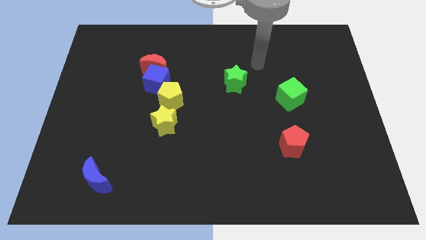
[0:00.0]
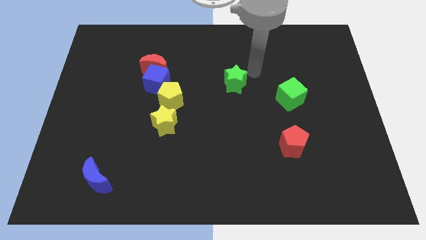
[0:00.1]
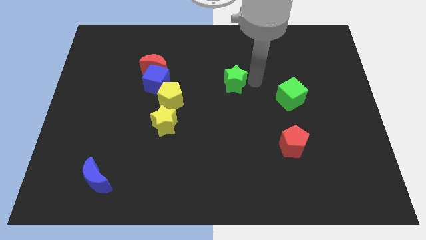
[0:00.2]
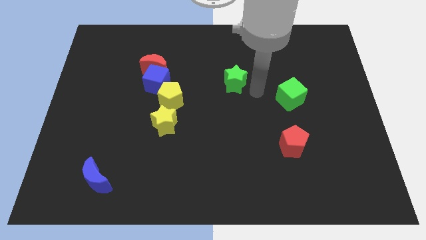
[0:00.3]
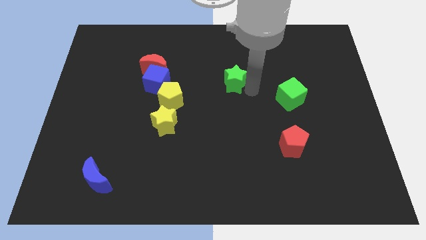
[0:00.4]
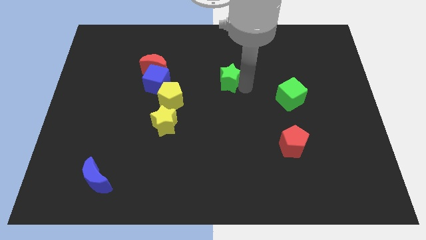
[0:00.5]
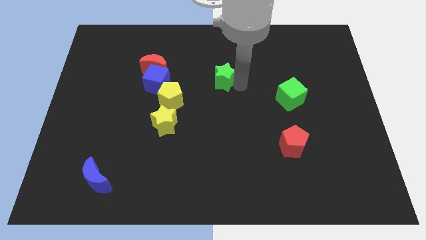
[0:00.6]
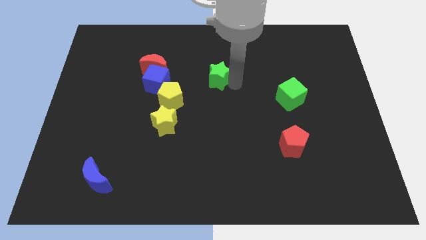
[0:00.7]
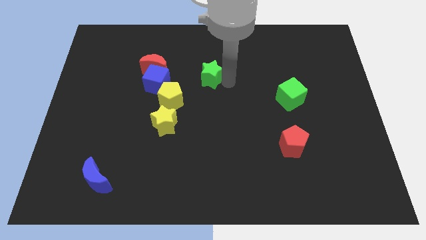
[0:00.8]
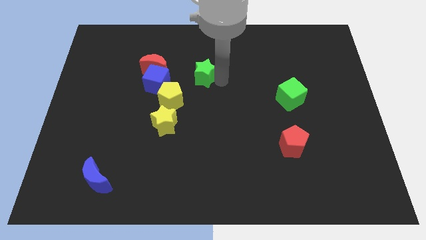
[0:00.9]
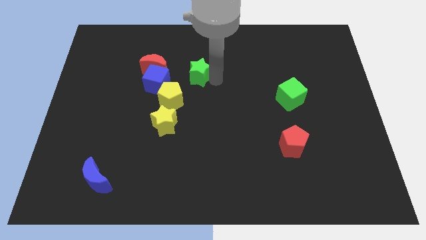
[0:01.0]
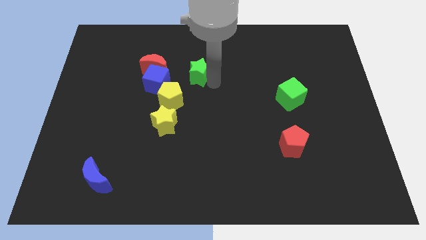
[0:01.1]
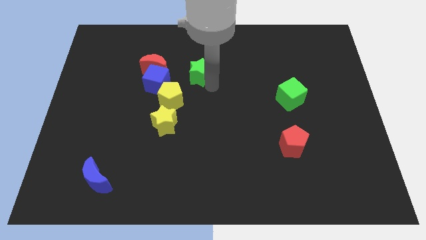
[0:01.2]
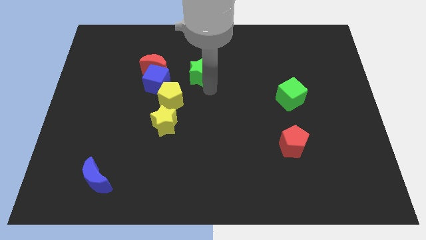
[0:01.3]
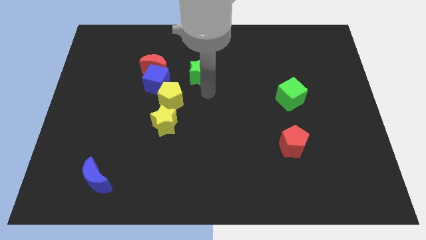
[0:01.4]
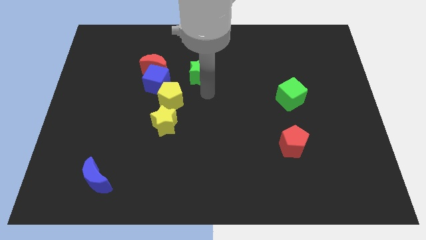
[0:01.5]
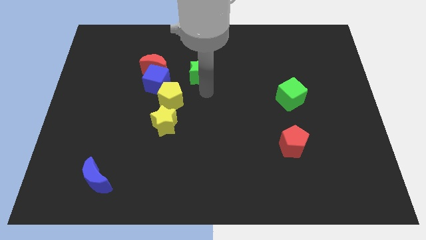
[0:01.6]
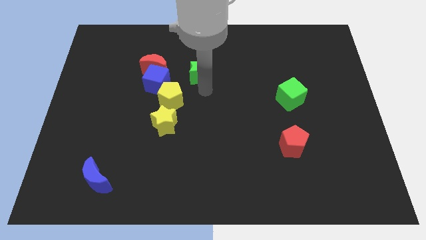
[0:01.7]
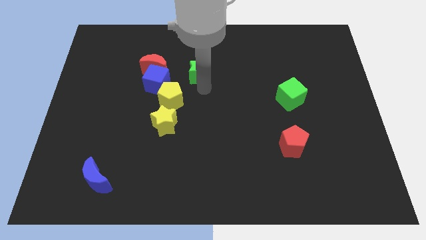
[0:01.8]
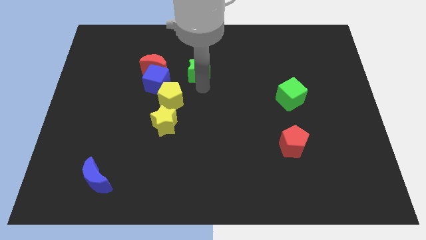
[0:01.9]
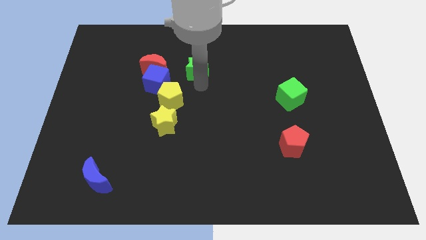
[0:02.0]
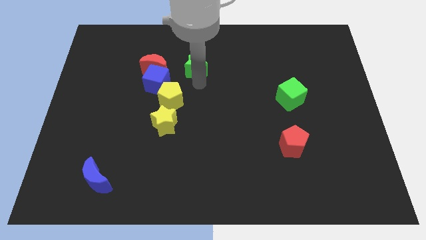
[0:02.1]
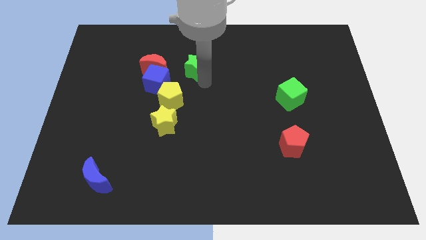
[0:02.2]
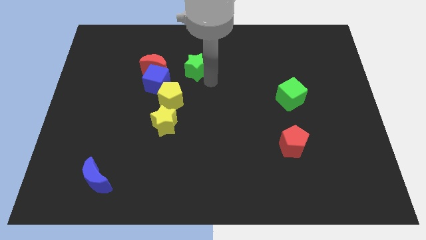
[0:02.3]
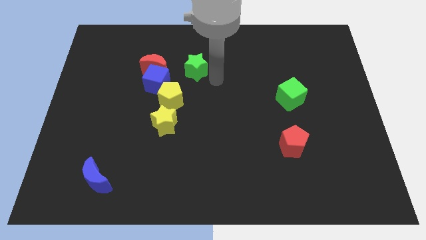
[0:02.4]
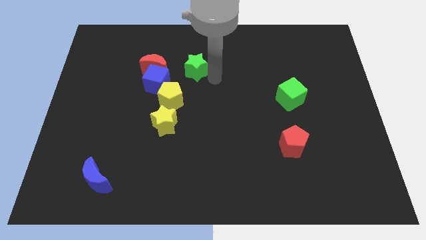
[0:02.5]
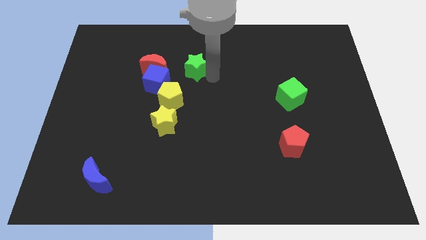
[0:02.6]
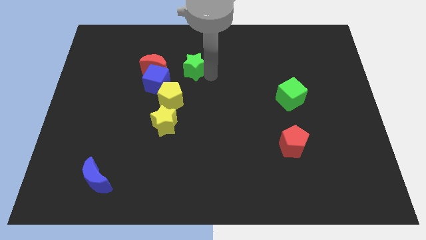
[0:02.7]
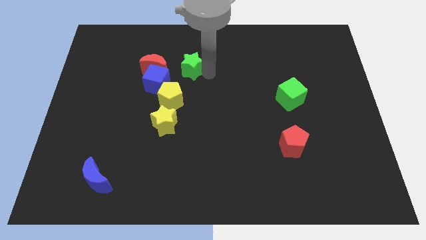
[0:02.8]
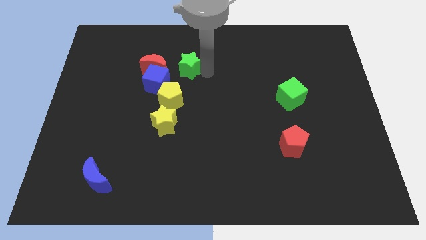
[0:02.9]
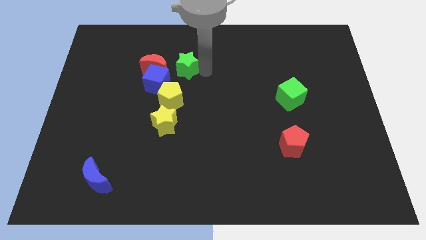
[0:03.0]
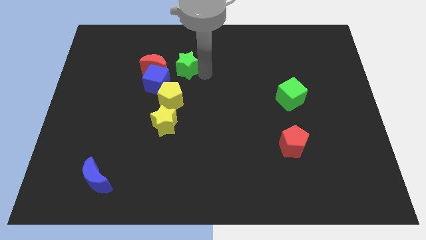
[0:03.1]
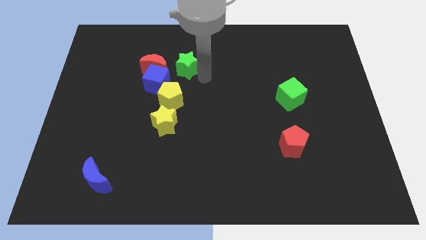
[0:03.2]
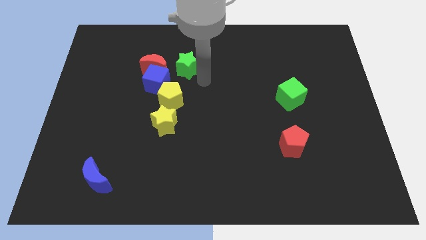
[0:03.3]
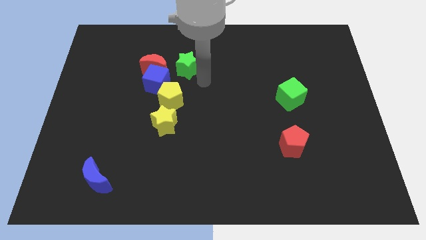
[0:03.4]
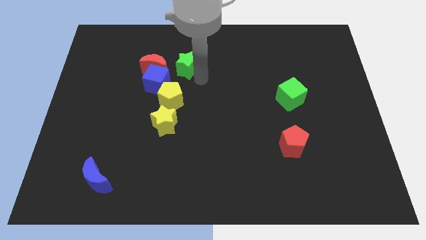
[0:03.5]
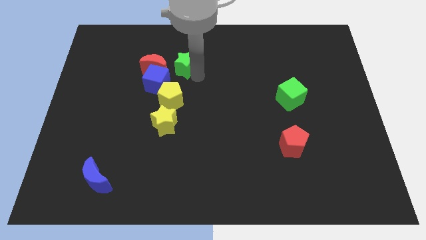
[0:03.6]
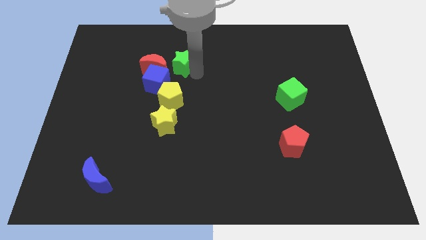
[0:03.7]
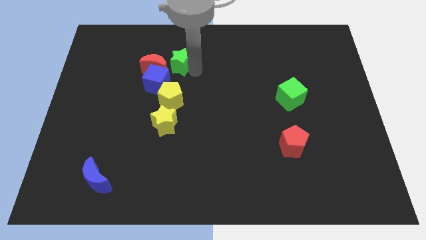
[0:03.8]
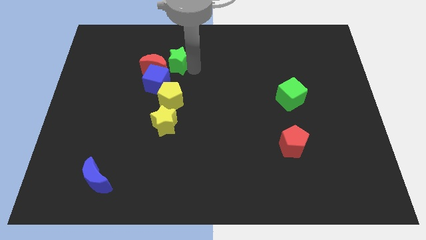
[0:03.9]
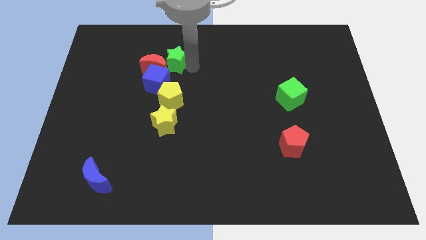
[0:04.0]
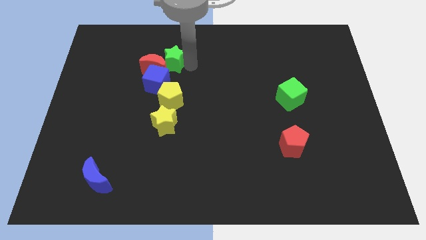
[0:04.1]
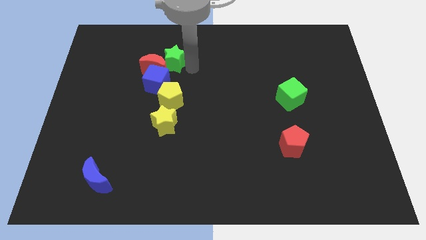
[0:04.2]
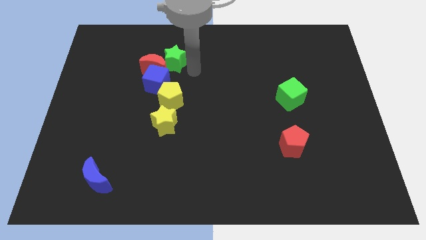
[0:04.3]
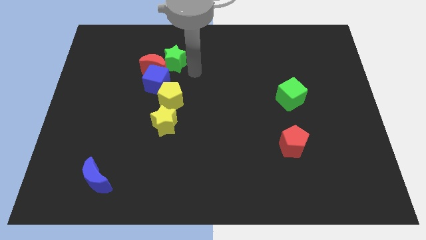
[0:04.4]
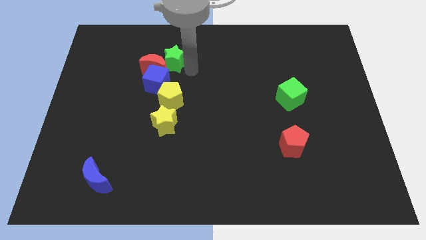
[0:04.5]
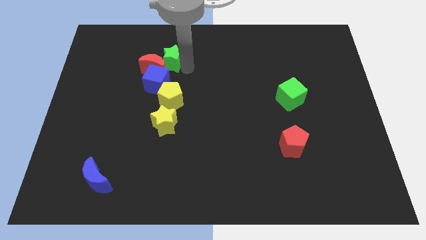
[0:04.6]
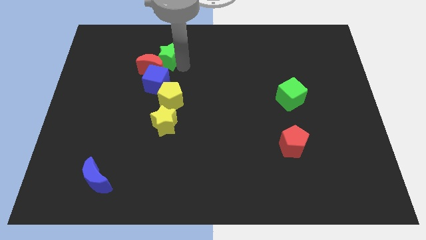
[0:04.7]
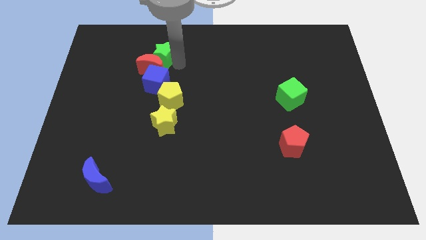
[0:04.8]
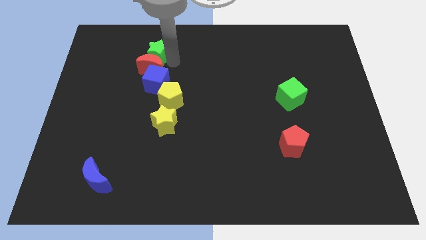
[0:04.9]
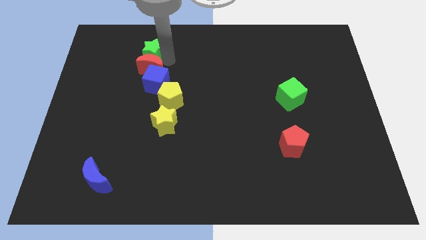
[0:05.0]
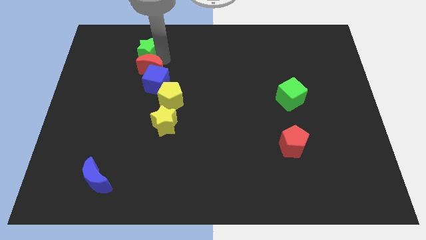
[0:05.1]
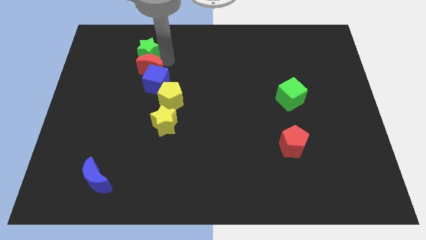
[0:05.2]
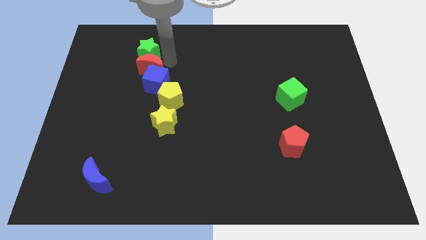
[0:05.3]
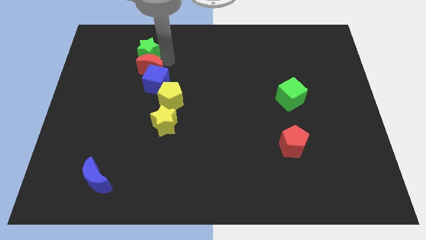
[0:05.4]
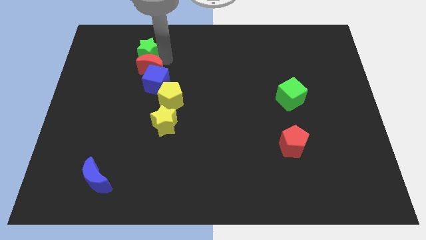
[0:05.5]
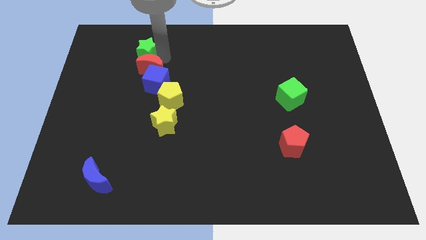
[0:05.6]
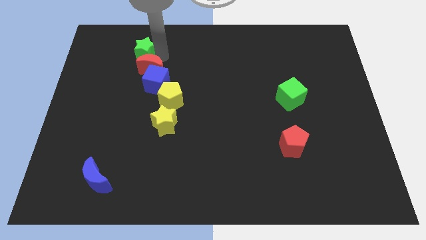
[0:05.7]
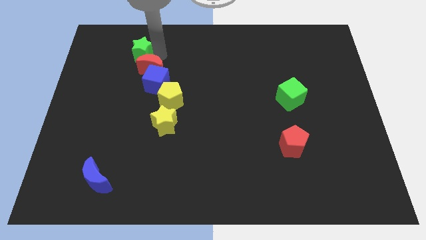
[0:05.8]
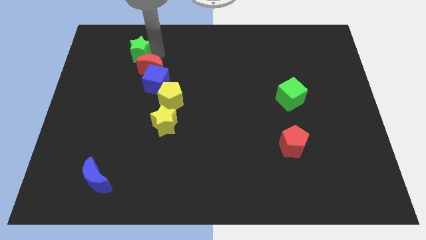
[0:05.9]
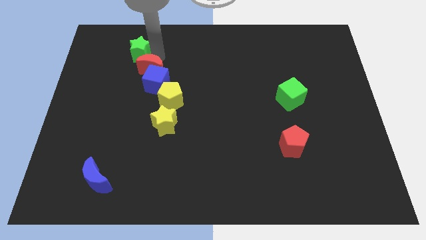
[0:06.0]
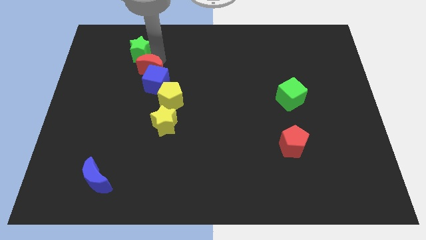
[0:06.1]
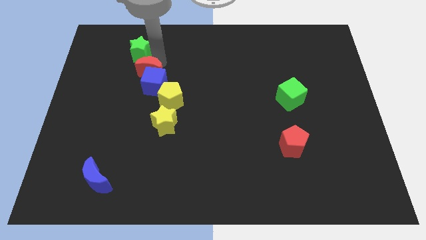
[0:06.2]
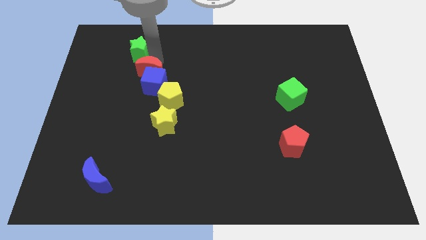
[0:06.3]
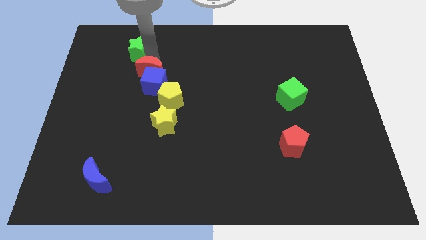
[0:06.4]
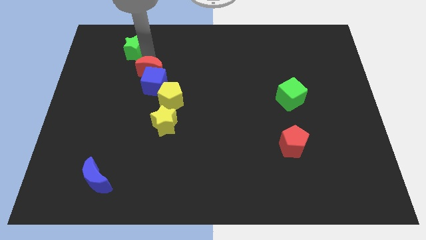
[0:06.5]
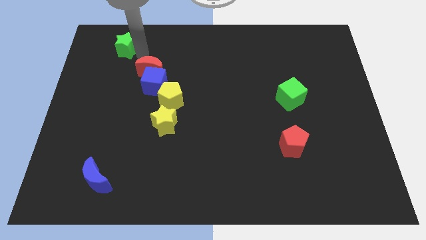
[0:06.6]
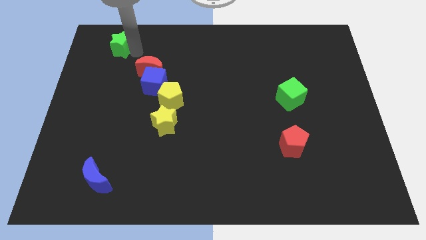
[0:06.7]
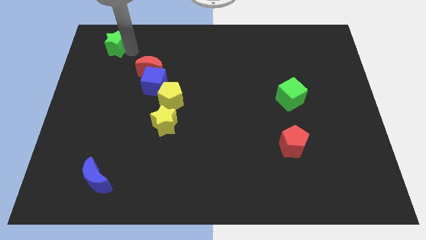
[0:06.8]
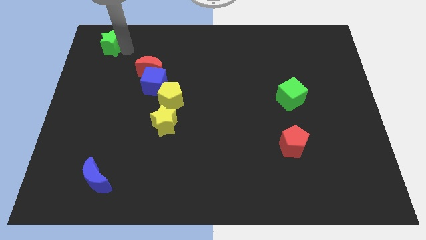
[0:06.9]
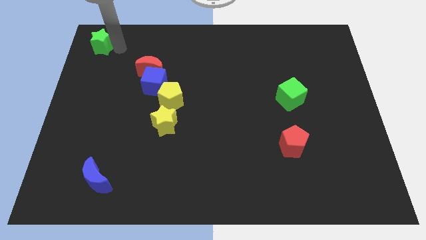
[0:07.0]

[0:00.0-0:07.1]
move the green star to the top left
